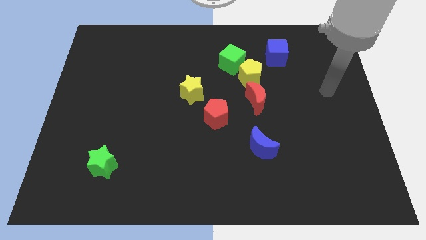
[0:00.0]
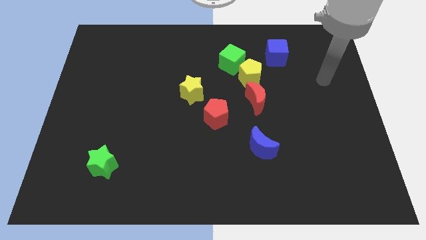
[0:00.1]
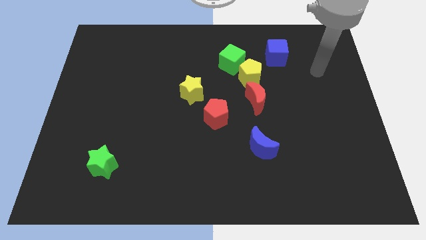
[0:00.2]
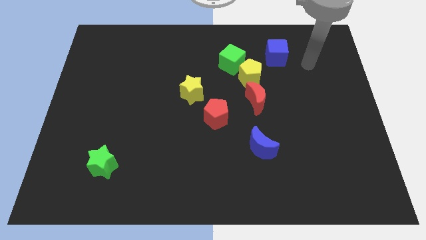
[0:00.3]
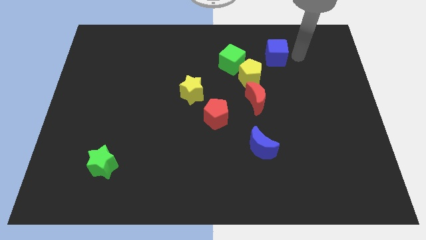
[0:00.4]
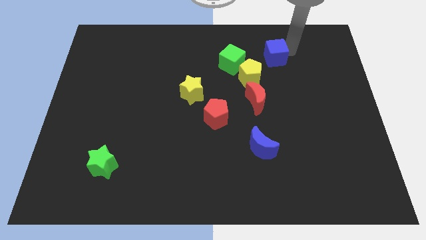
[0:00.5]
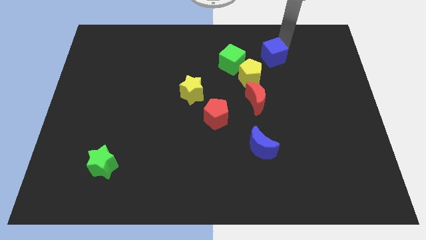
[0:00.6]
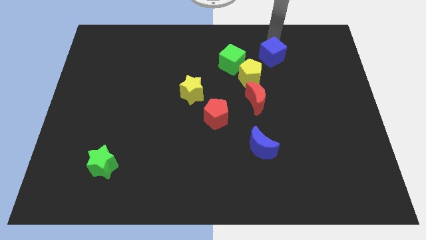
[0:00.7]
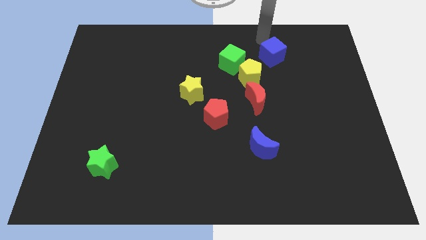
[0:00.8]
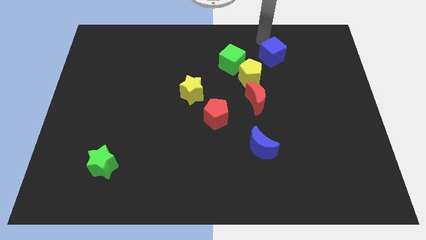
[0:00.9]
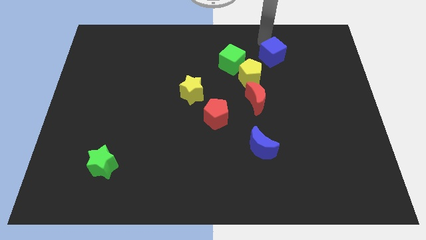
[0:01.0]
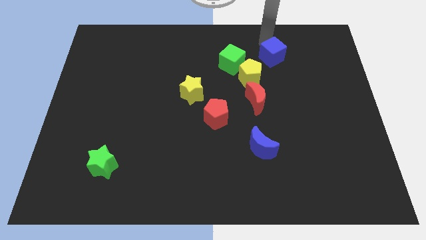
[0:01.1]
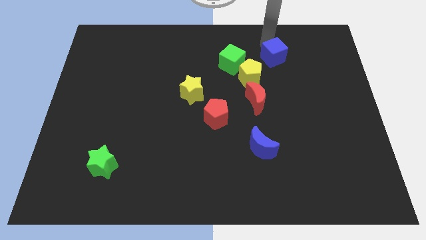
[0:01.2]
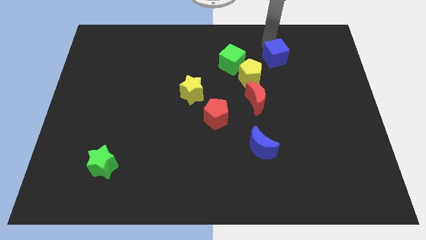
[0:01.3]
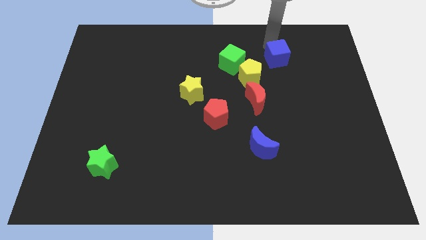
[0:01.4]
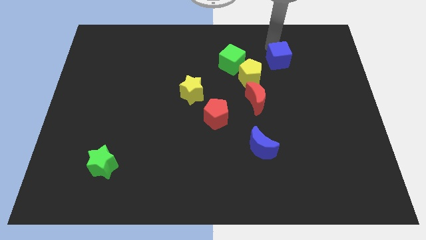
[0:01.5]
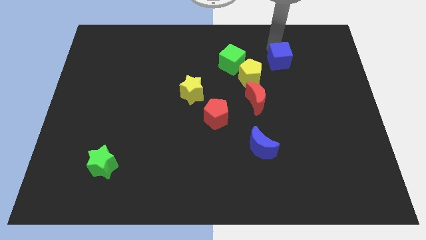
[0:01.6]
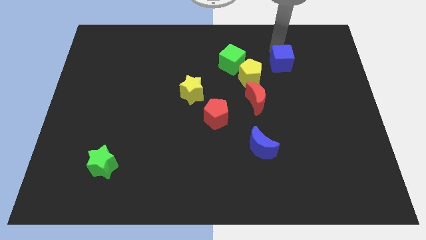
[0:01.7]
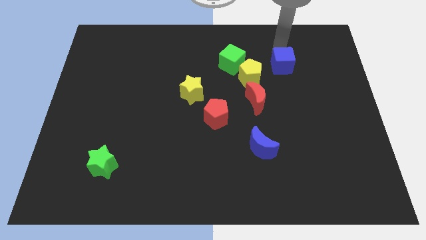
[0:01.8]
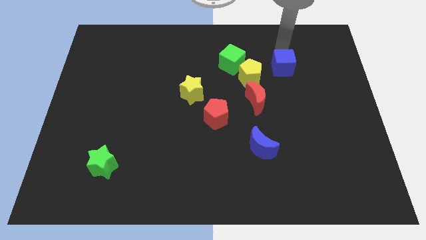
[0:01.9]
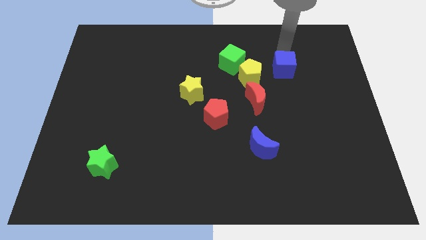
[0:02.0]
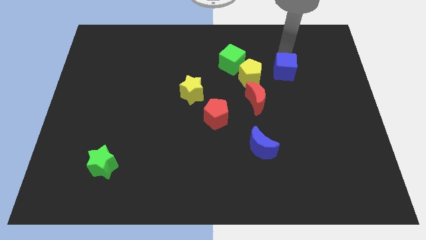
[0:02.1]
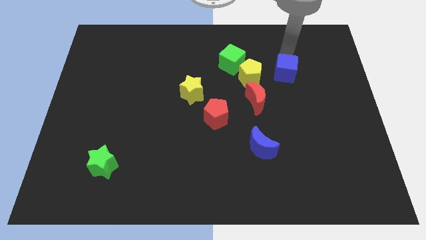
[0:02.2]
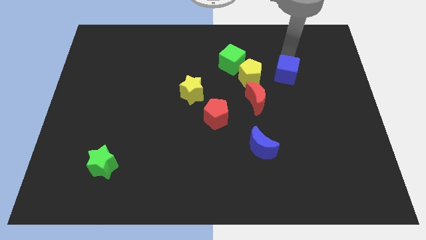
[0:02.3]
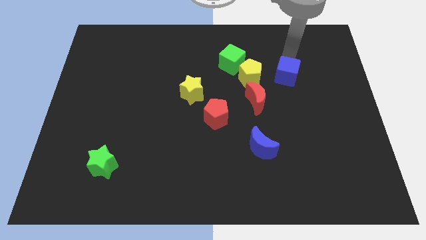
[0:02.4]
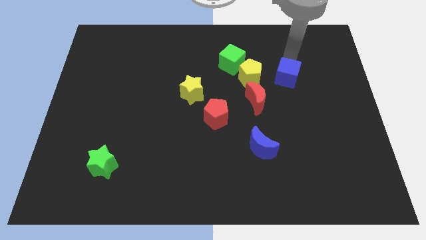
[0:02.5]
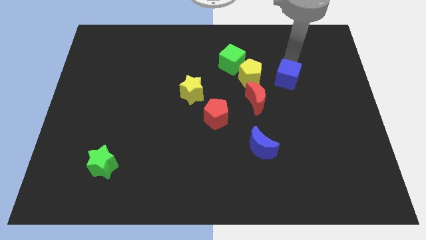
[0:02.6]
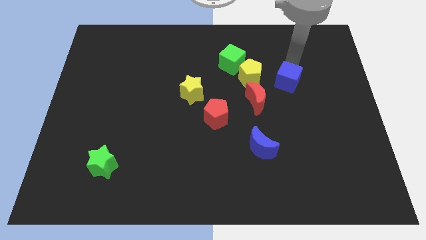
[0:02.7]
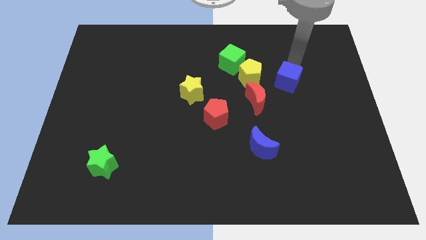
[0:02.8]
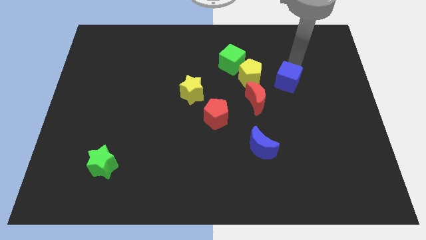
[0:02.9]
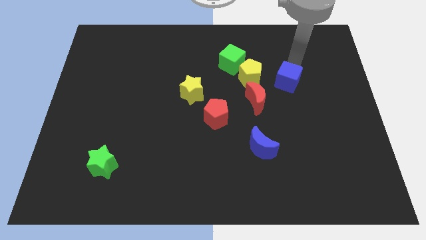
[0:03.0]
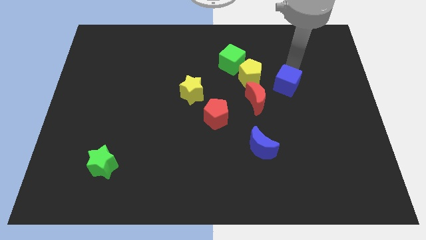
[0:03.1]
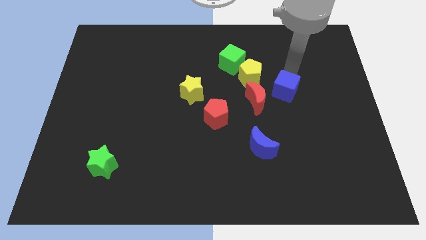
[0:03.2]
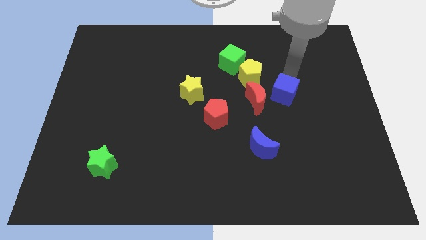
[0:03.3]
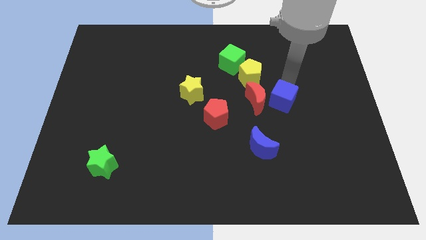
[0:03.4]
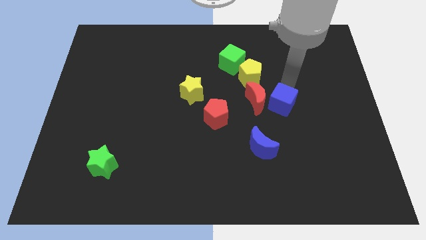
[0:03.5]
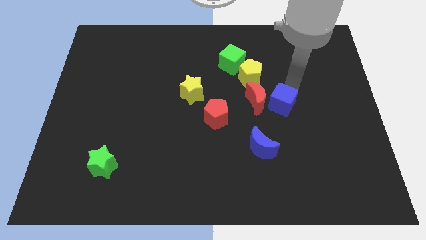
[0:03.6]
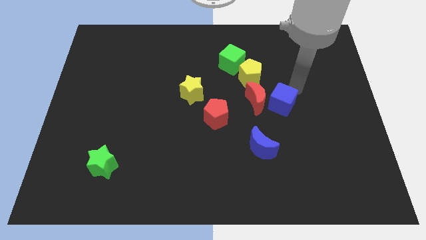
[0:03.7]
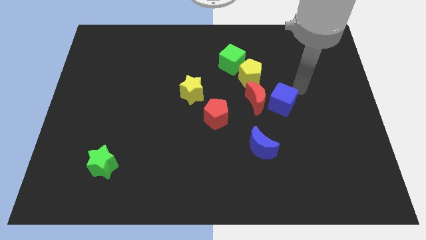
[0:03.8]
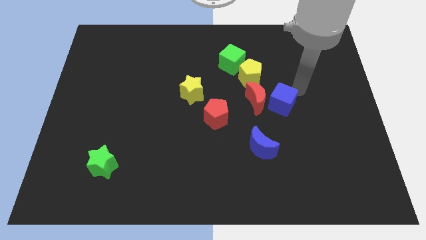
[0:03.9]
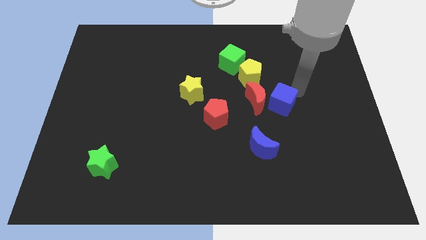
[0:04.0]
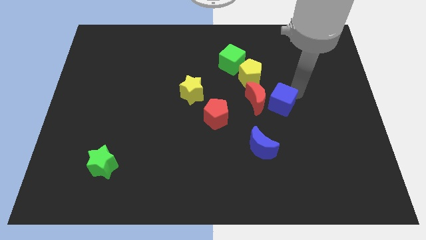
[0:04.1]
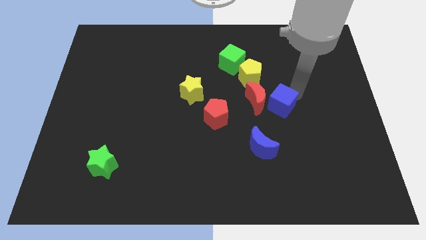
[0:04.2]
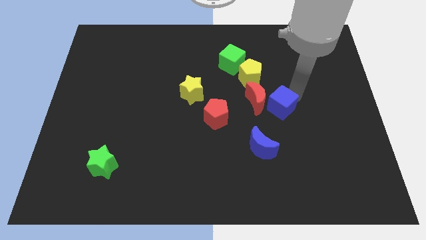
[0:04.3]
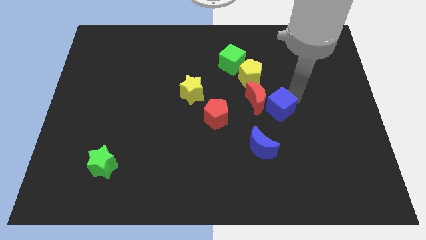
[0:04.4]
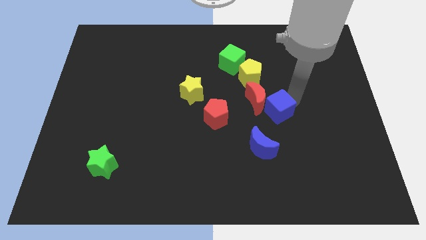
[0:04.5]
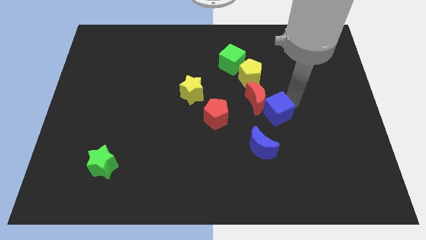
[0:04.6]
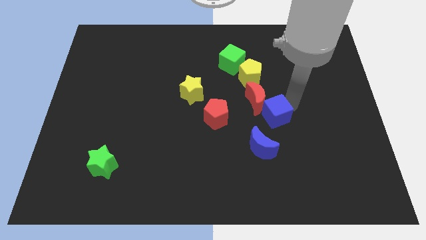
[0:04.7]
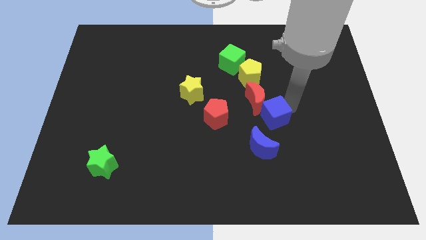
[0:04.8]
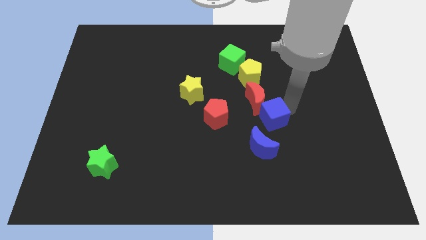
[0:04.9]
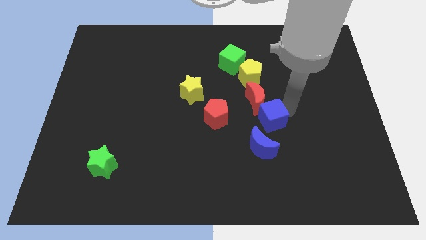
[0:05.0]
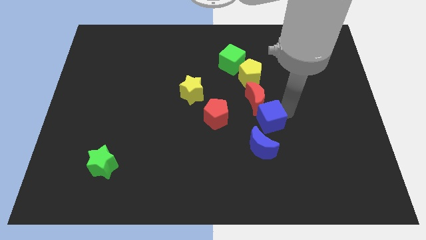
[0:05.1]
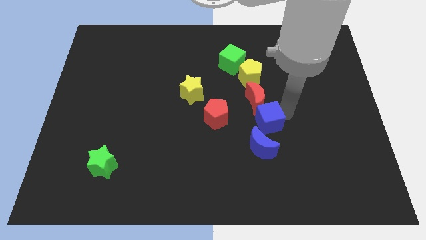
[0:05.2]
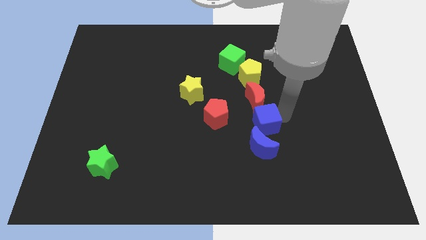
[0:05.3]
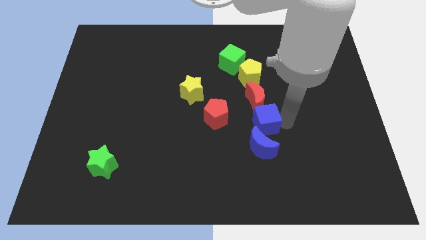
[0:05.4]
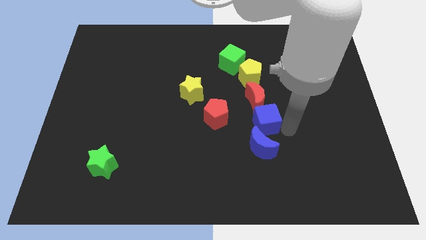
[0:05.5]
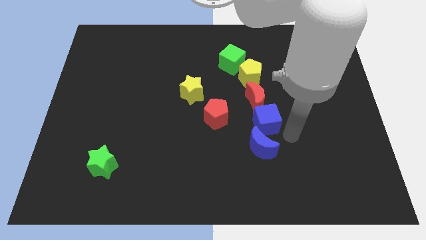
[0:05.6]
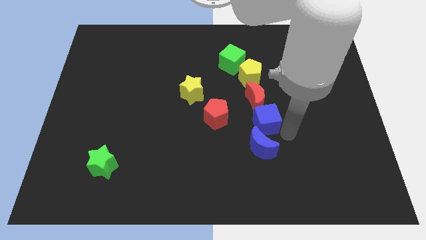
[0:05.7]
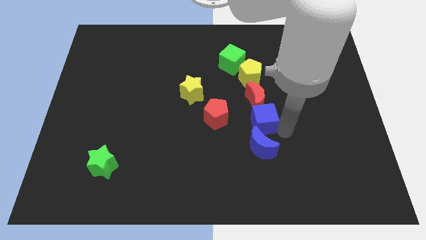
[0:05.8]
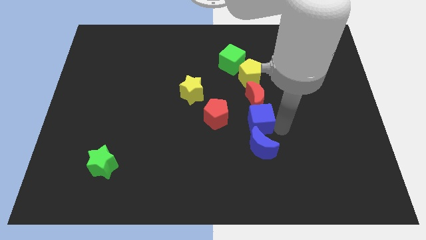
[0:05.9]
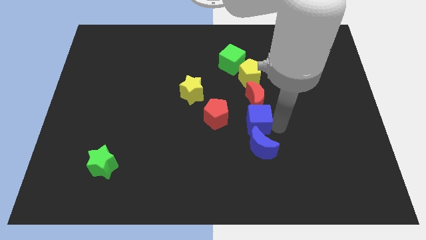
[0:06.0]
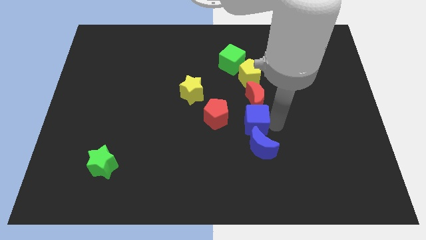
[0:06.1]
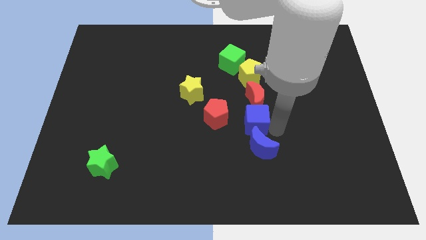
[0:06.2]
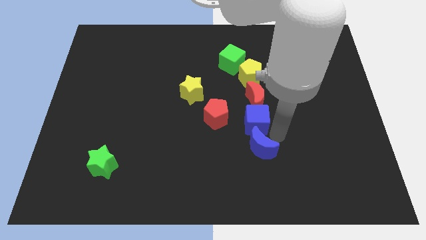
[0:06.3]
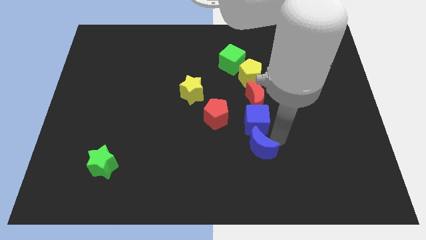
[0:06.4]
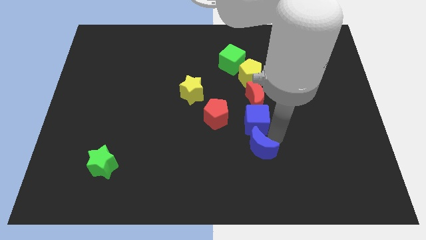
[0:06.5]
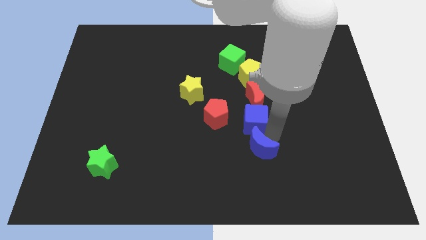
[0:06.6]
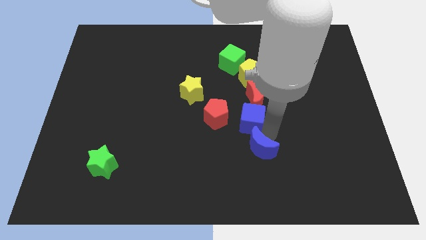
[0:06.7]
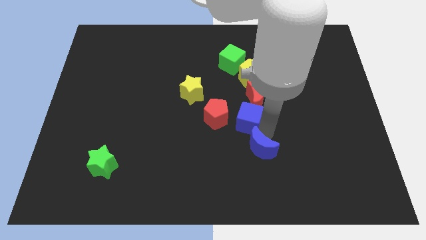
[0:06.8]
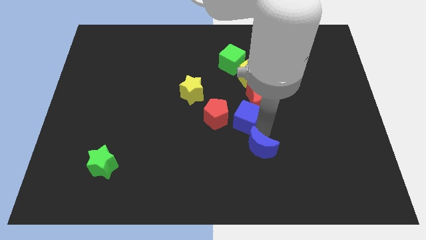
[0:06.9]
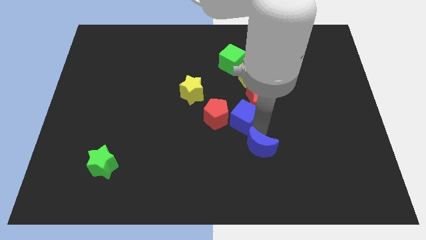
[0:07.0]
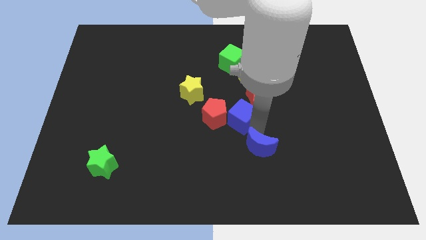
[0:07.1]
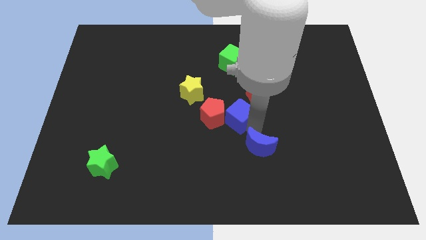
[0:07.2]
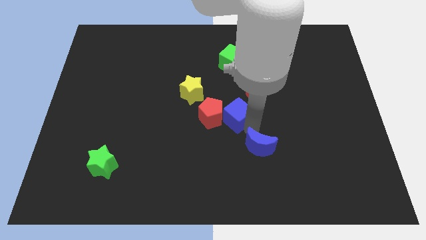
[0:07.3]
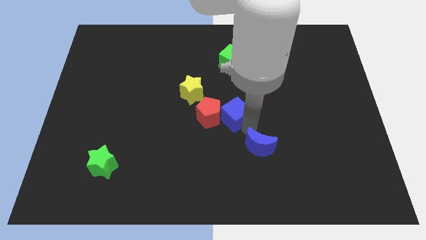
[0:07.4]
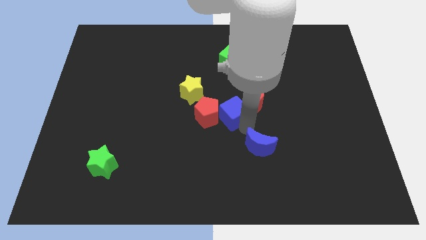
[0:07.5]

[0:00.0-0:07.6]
move the blue cube left of the red moon

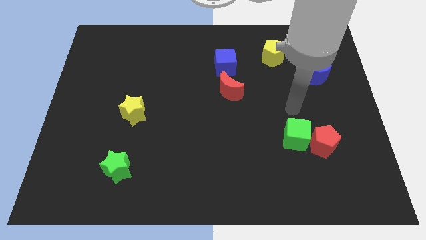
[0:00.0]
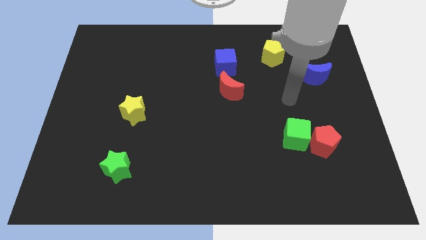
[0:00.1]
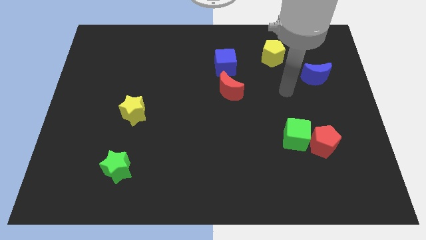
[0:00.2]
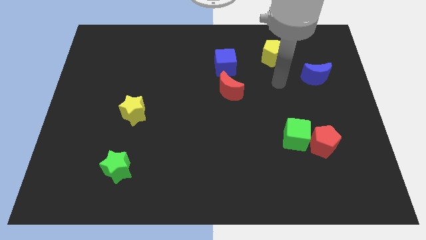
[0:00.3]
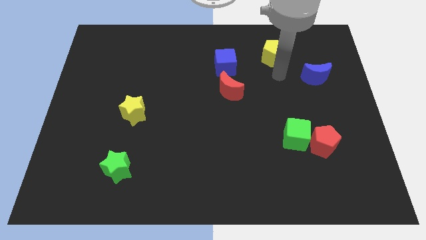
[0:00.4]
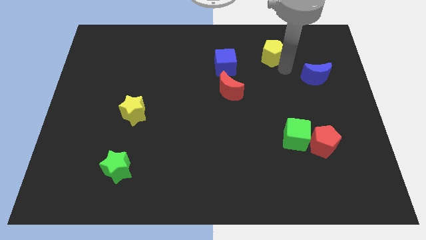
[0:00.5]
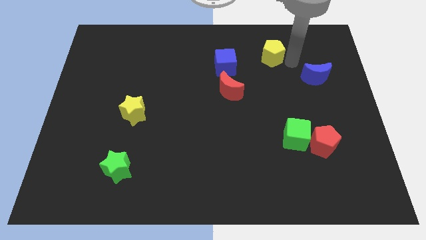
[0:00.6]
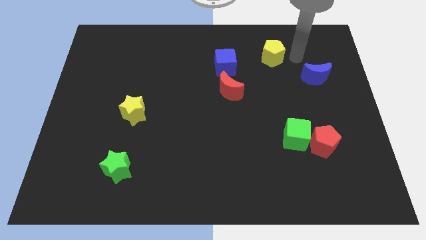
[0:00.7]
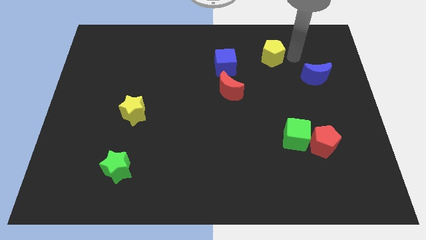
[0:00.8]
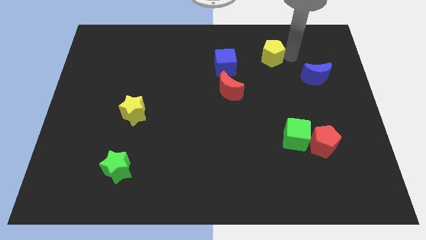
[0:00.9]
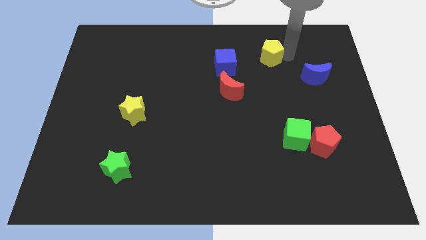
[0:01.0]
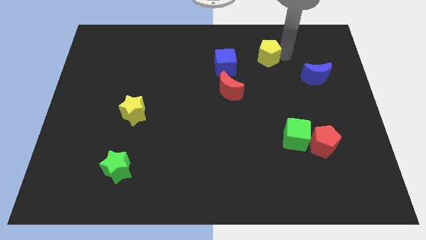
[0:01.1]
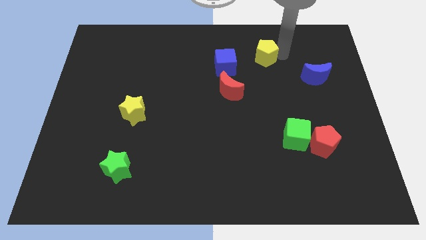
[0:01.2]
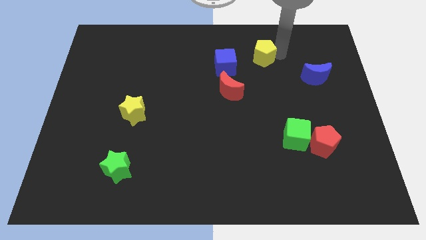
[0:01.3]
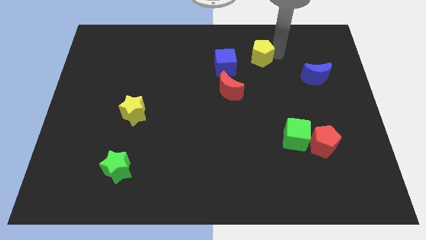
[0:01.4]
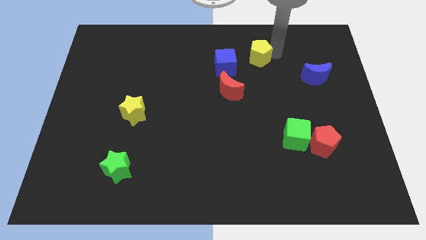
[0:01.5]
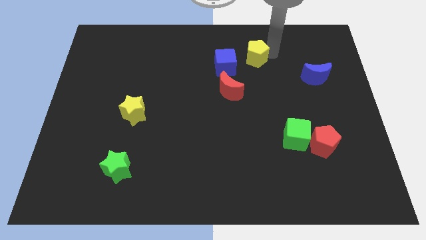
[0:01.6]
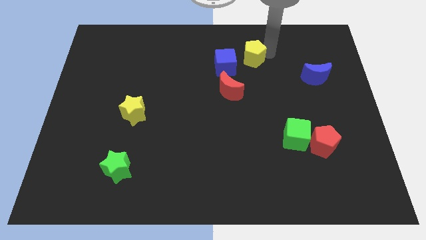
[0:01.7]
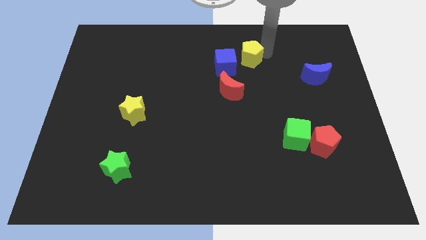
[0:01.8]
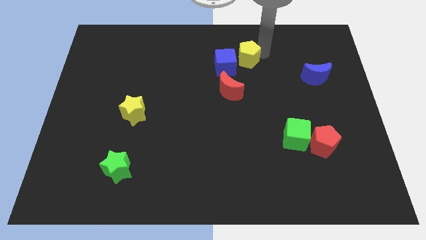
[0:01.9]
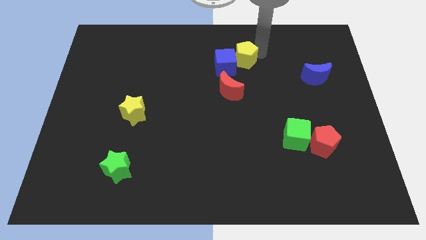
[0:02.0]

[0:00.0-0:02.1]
slide the yellow pentagon to the top side of the red moon
